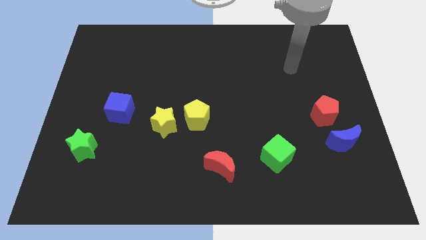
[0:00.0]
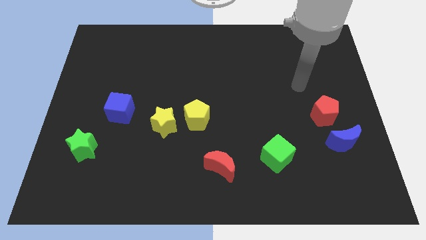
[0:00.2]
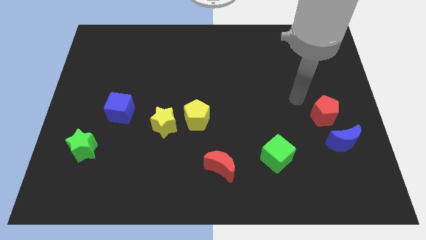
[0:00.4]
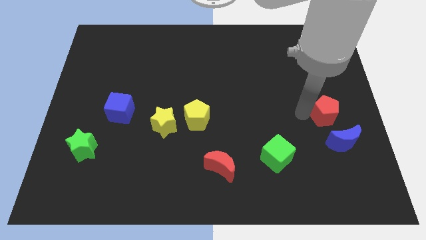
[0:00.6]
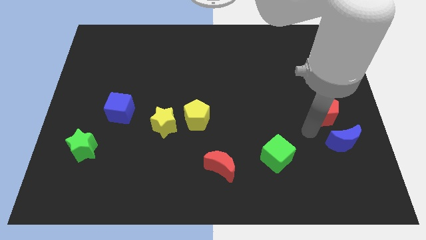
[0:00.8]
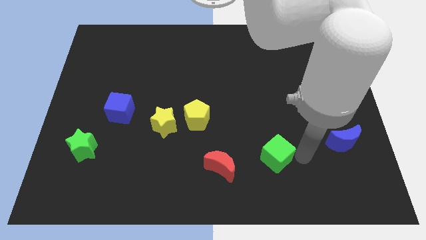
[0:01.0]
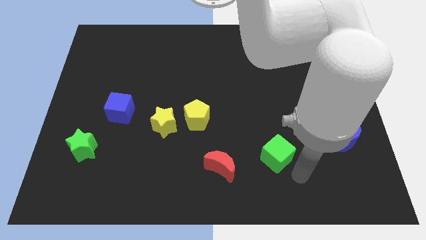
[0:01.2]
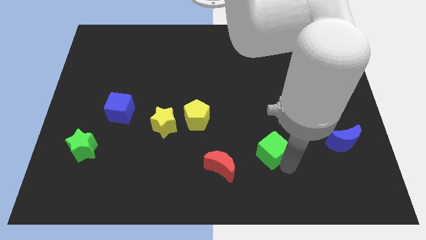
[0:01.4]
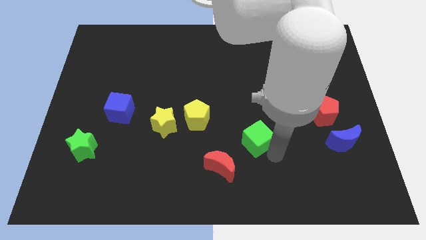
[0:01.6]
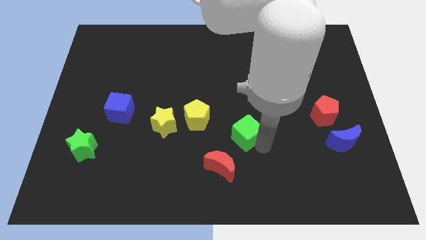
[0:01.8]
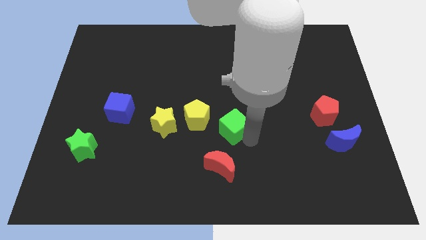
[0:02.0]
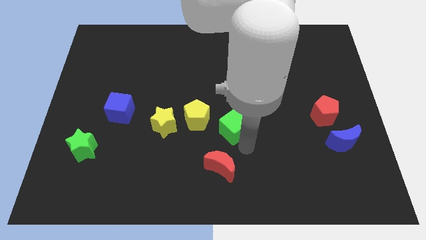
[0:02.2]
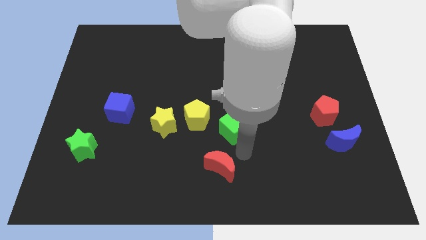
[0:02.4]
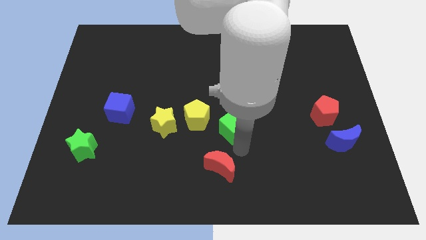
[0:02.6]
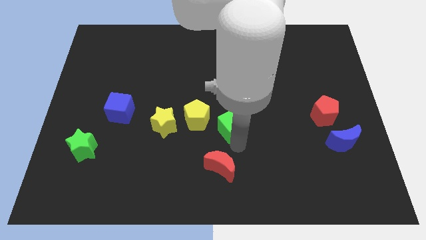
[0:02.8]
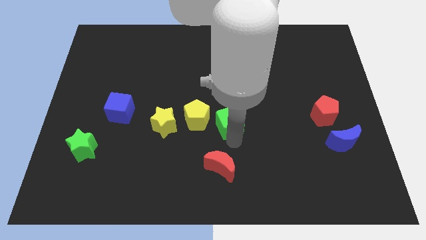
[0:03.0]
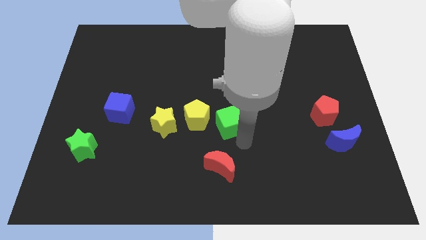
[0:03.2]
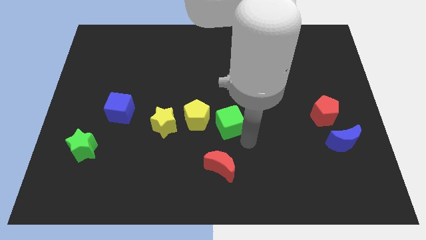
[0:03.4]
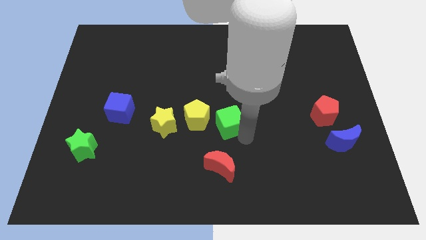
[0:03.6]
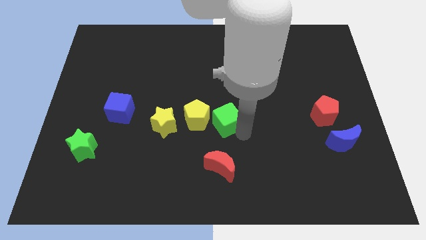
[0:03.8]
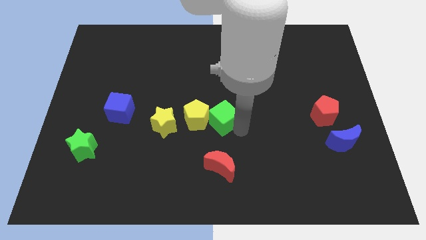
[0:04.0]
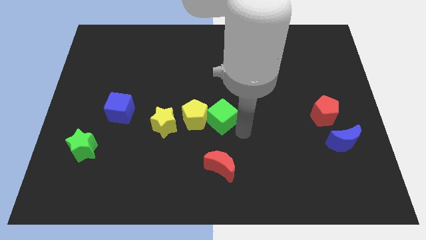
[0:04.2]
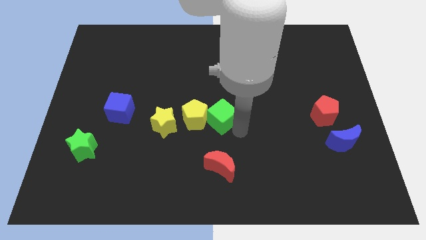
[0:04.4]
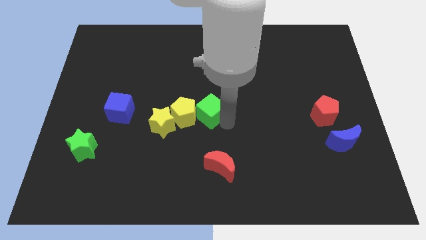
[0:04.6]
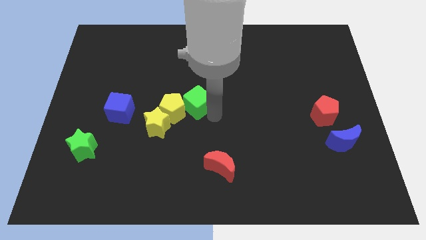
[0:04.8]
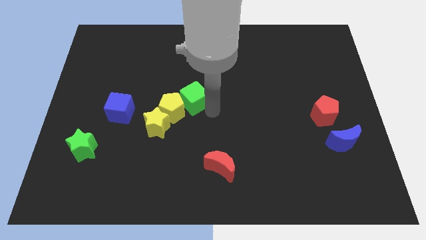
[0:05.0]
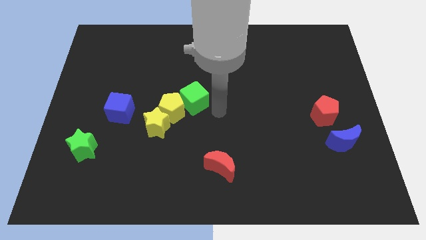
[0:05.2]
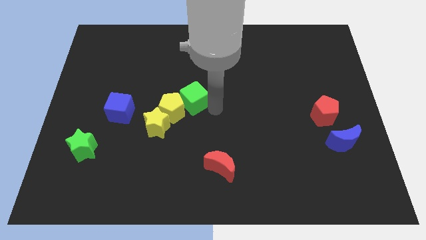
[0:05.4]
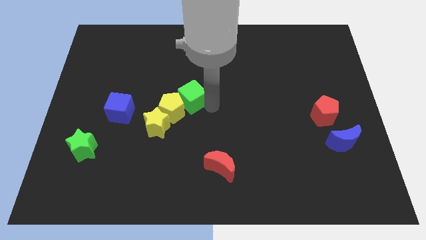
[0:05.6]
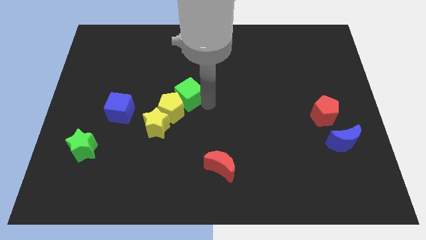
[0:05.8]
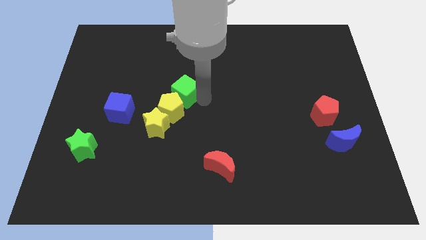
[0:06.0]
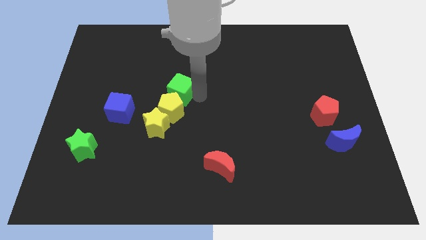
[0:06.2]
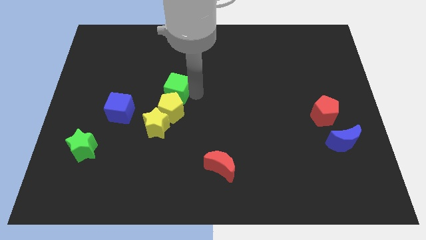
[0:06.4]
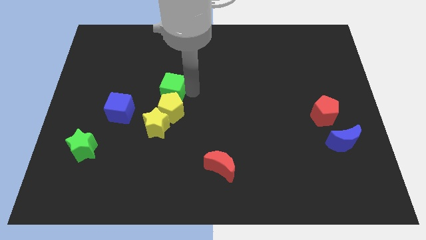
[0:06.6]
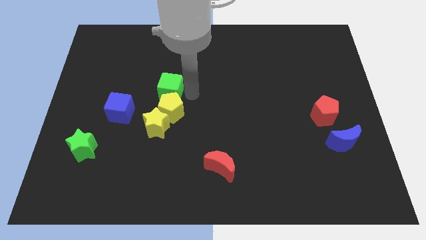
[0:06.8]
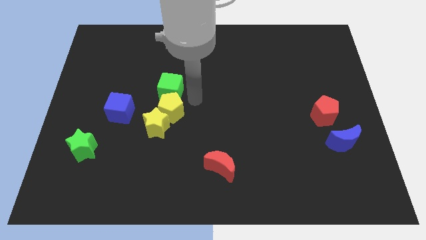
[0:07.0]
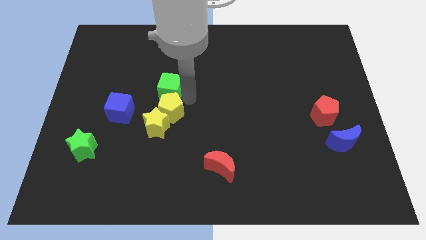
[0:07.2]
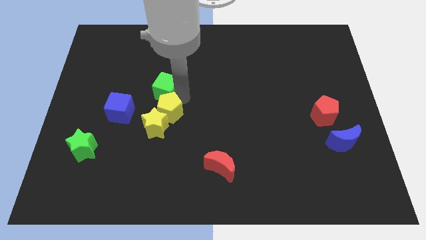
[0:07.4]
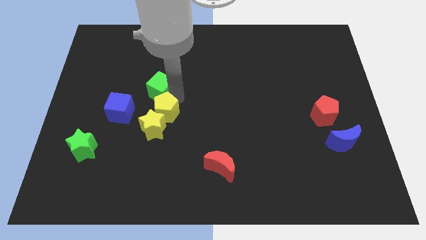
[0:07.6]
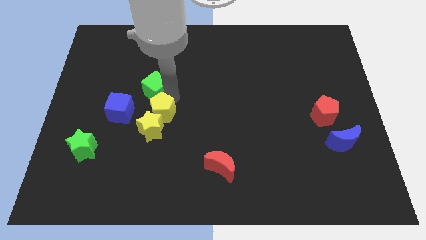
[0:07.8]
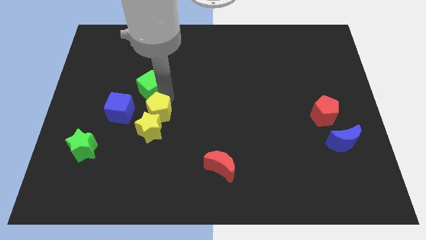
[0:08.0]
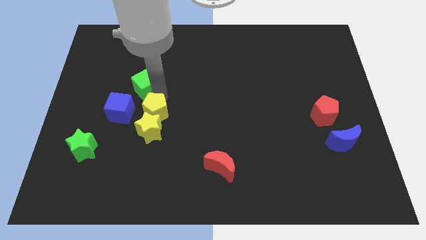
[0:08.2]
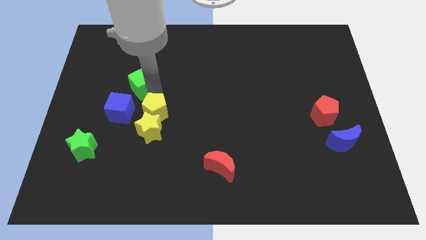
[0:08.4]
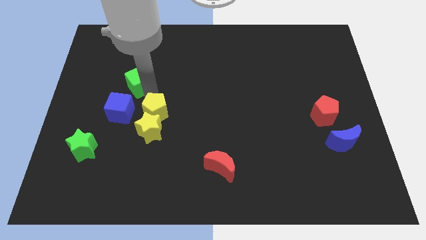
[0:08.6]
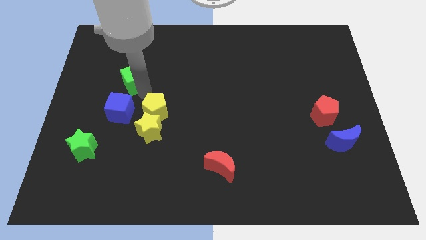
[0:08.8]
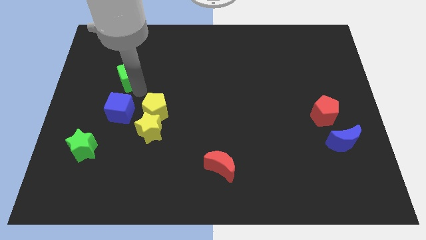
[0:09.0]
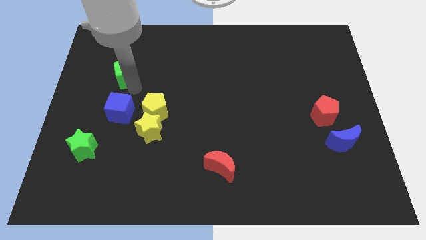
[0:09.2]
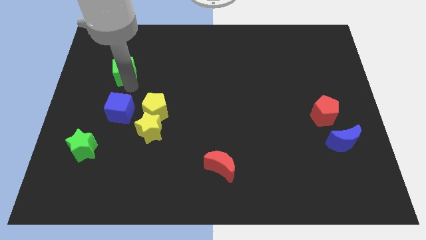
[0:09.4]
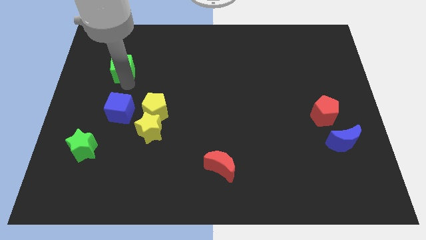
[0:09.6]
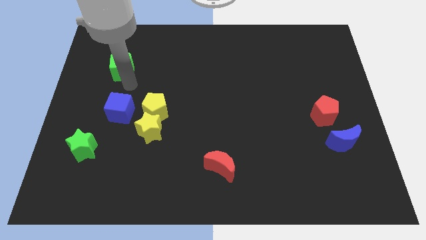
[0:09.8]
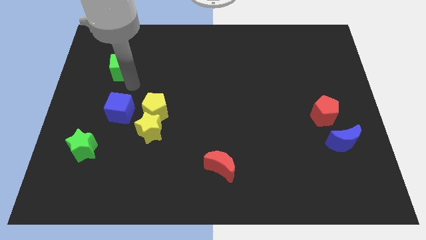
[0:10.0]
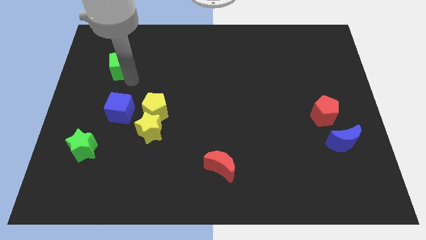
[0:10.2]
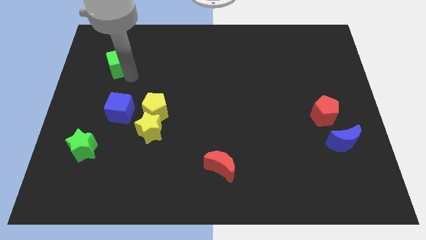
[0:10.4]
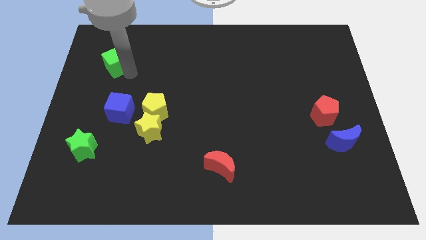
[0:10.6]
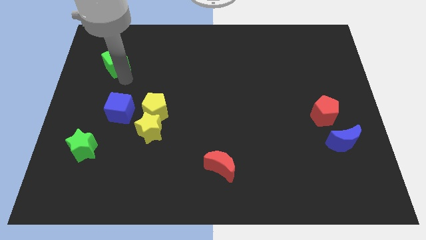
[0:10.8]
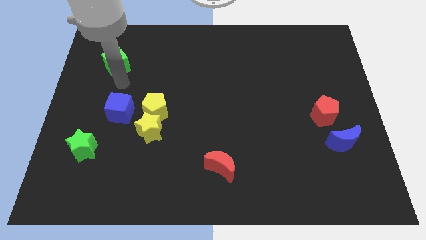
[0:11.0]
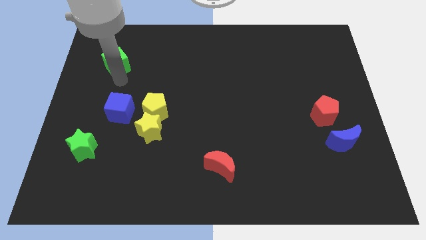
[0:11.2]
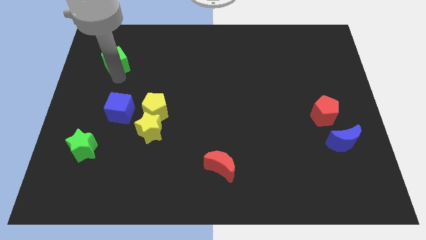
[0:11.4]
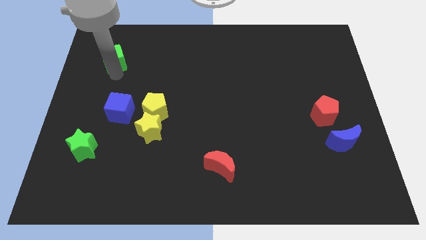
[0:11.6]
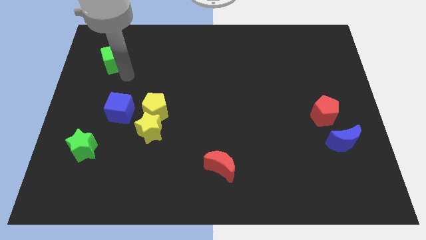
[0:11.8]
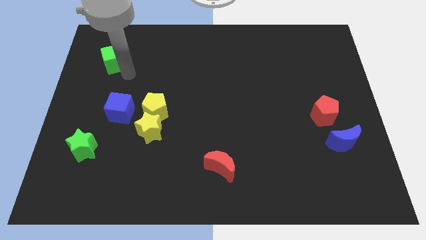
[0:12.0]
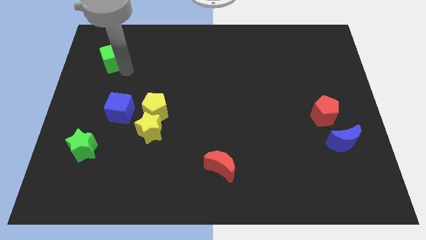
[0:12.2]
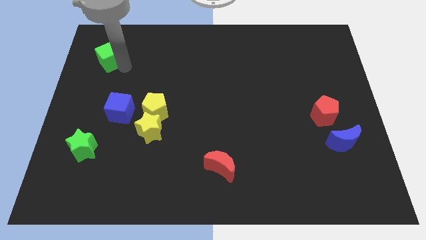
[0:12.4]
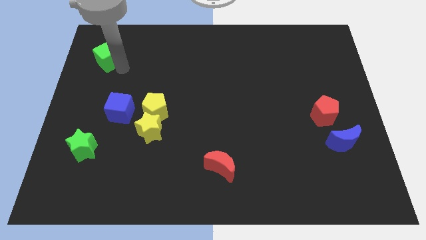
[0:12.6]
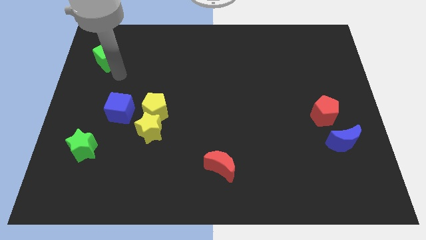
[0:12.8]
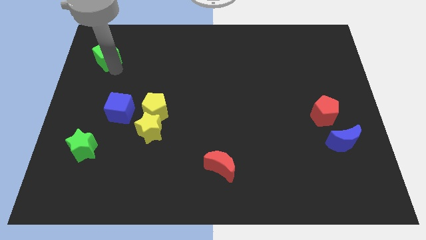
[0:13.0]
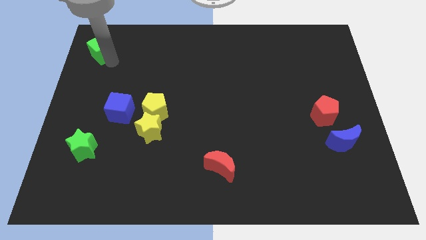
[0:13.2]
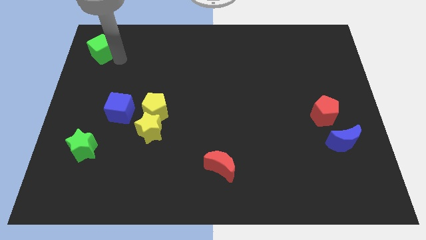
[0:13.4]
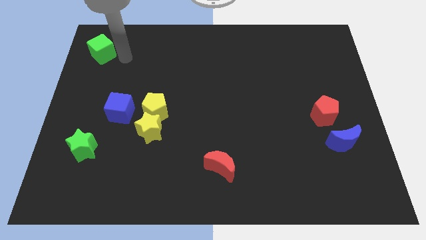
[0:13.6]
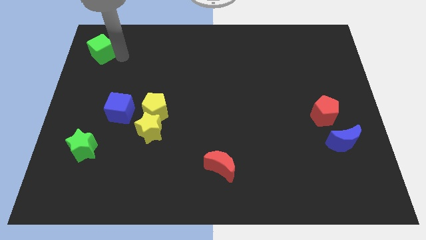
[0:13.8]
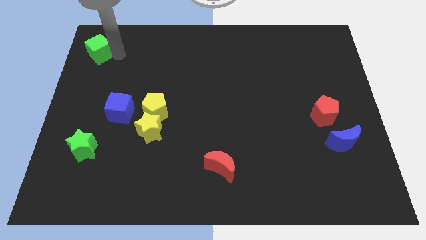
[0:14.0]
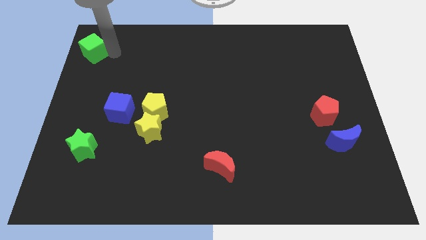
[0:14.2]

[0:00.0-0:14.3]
push the green cube to the top left
